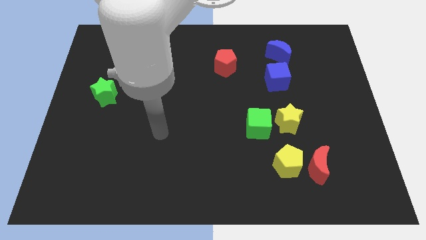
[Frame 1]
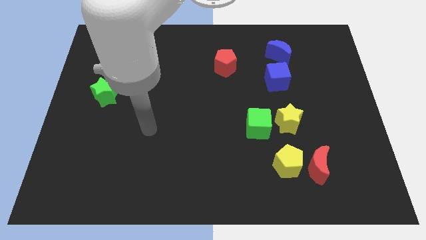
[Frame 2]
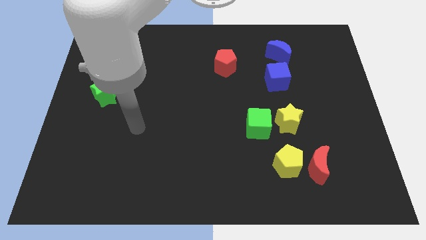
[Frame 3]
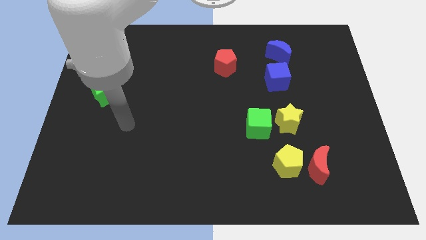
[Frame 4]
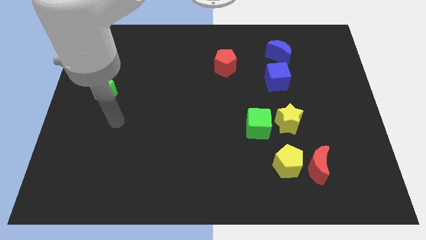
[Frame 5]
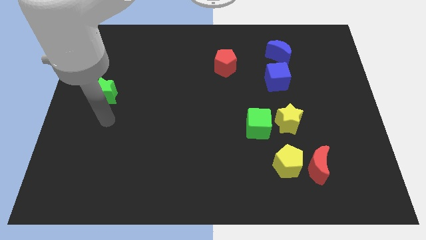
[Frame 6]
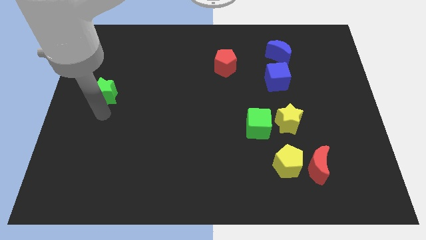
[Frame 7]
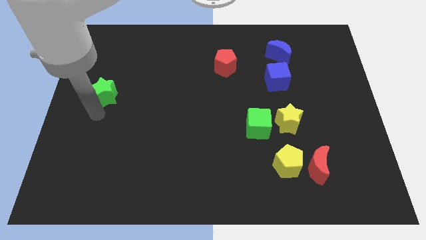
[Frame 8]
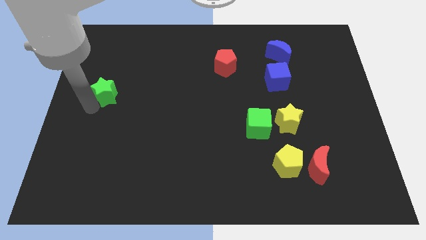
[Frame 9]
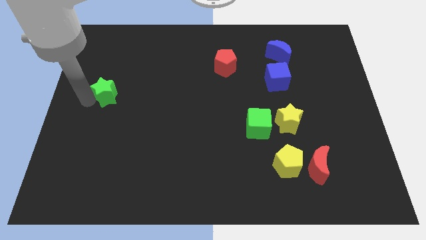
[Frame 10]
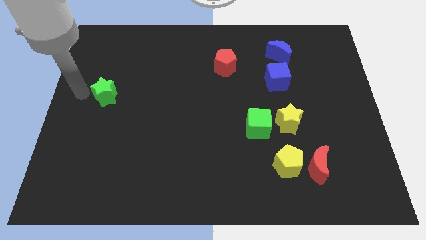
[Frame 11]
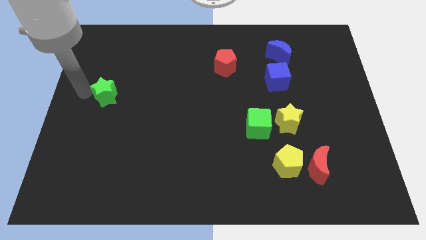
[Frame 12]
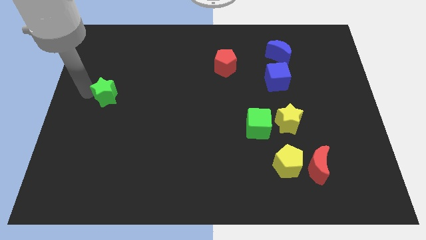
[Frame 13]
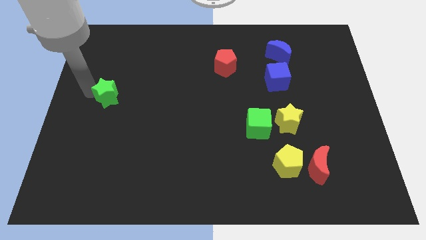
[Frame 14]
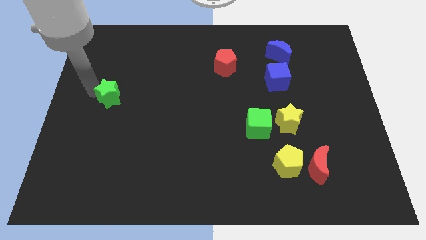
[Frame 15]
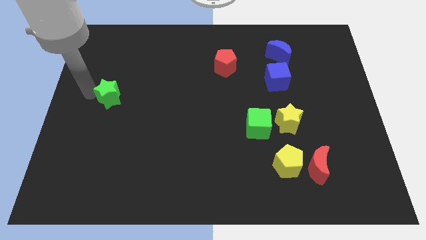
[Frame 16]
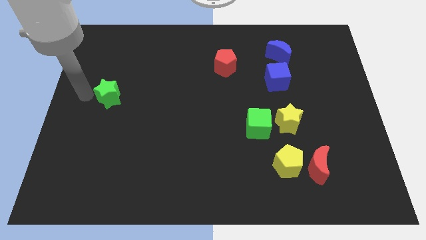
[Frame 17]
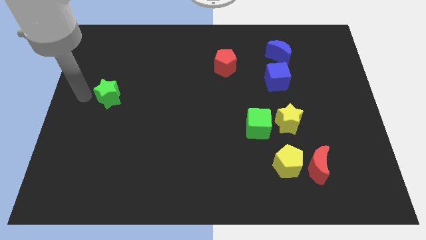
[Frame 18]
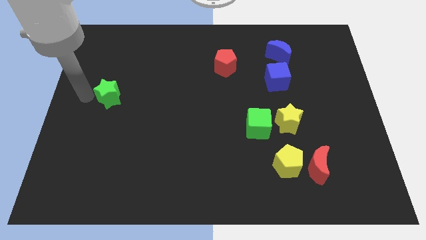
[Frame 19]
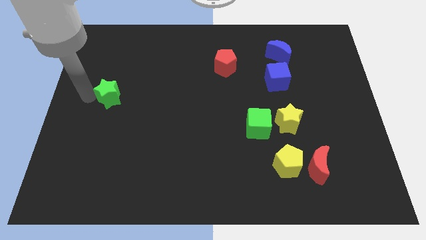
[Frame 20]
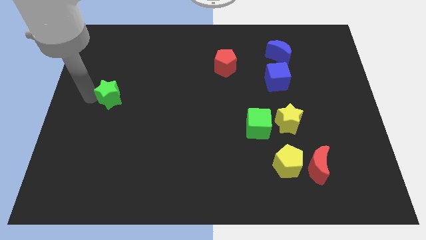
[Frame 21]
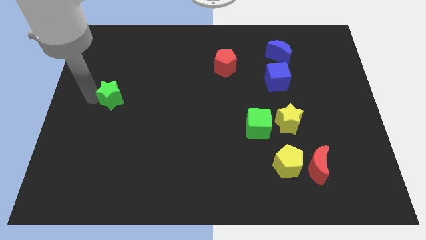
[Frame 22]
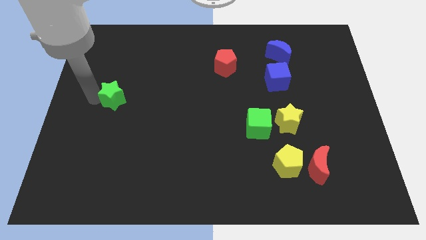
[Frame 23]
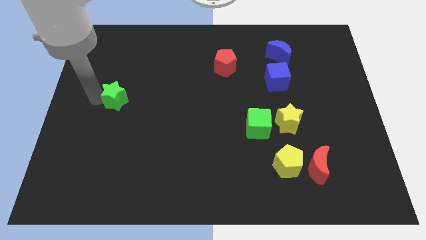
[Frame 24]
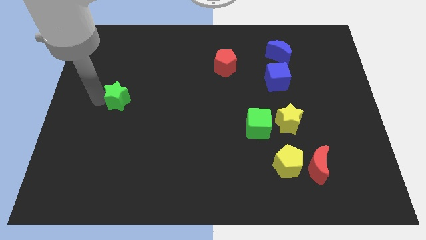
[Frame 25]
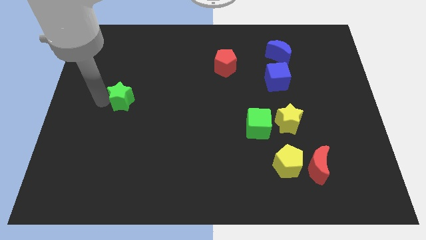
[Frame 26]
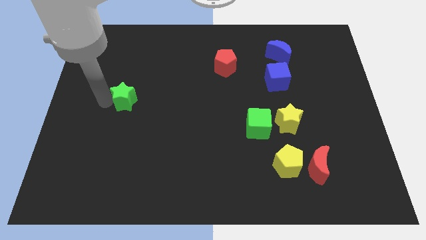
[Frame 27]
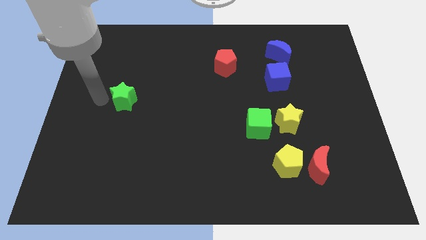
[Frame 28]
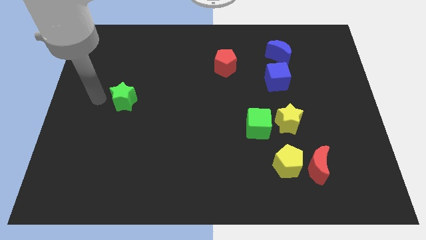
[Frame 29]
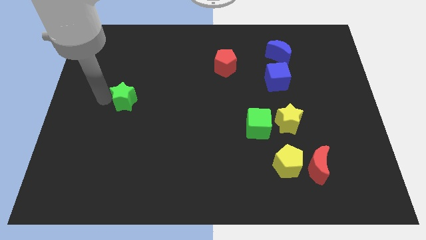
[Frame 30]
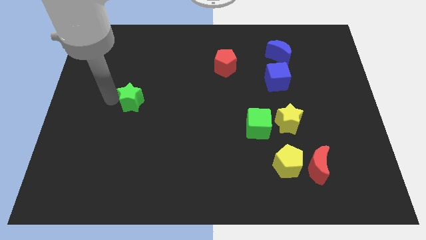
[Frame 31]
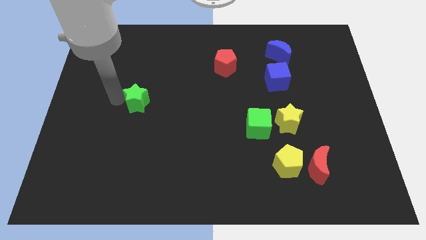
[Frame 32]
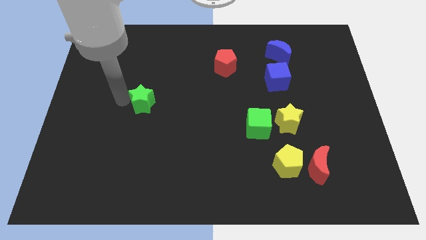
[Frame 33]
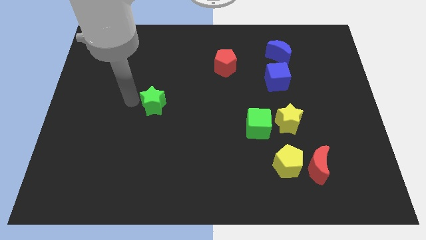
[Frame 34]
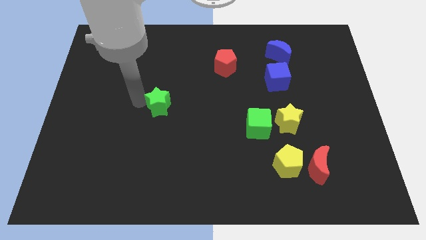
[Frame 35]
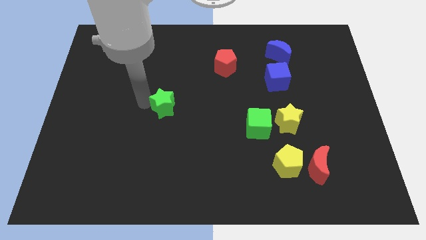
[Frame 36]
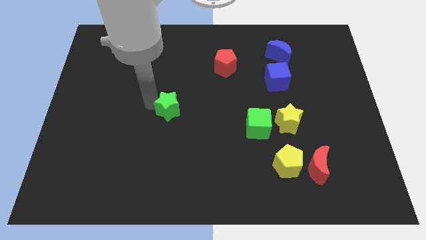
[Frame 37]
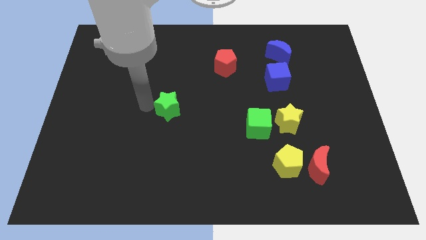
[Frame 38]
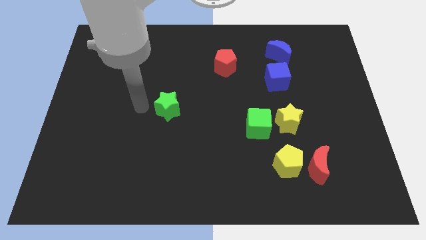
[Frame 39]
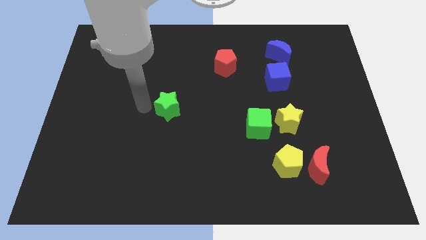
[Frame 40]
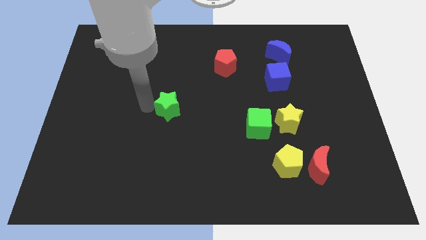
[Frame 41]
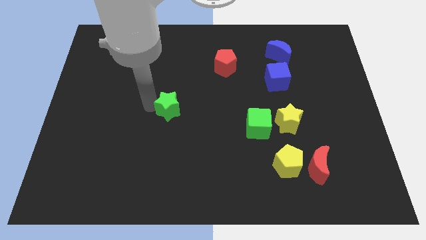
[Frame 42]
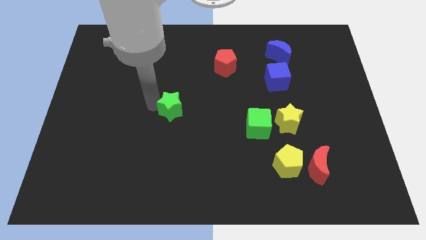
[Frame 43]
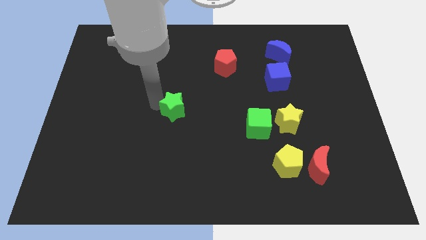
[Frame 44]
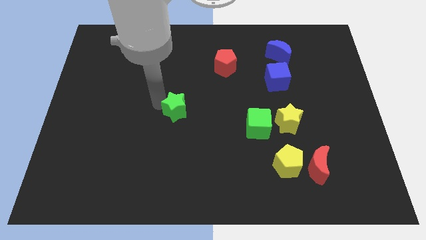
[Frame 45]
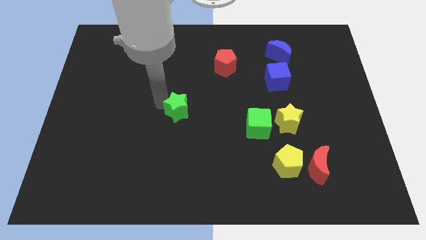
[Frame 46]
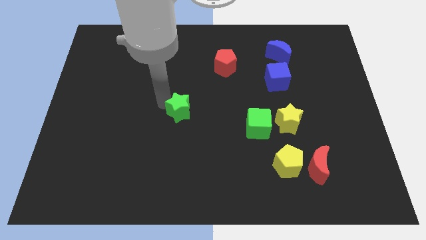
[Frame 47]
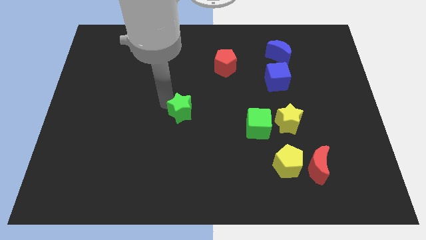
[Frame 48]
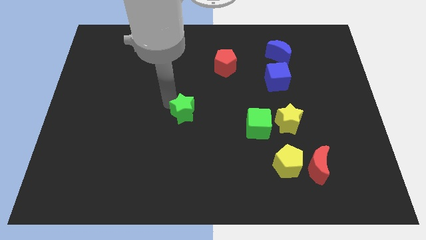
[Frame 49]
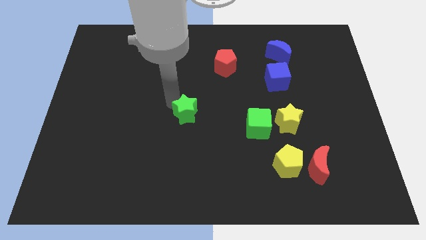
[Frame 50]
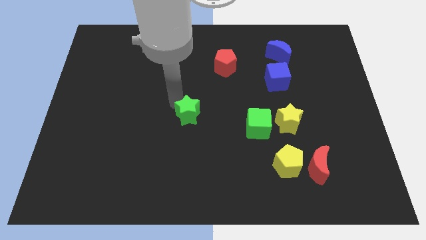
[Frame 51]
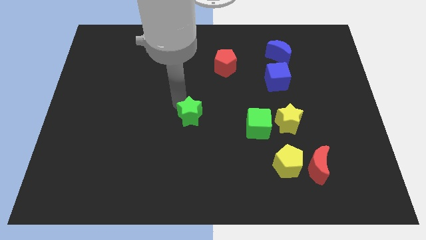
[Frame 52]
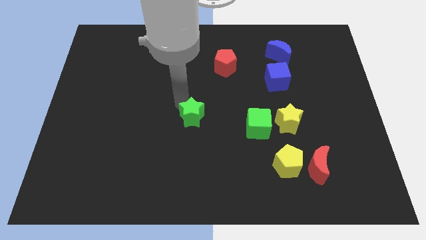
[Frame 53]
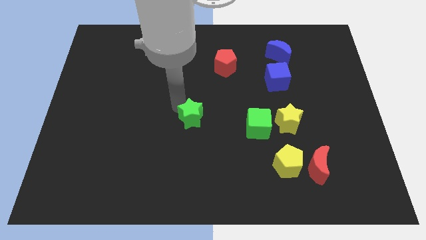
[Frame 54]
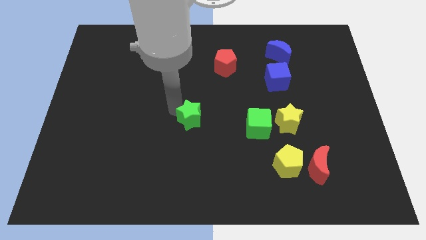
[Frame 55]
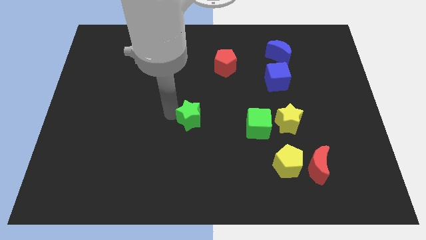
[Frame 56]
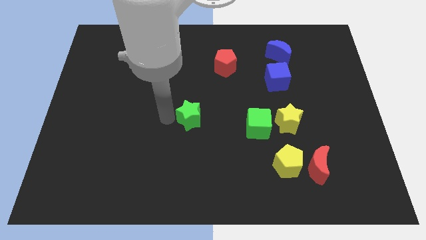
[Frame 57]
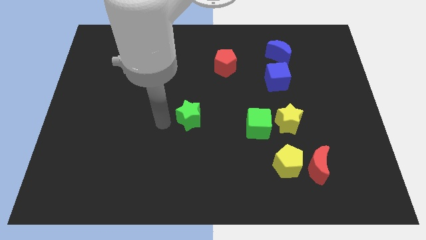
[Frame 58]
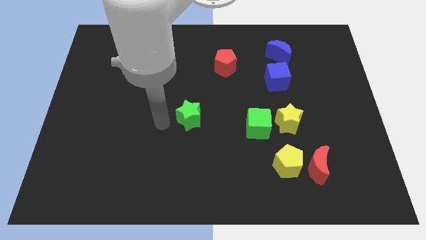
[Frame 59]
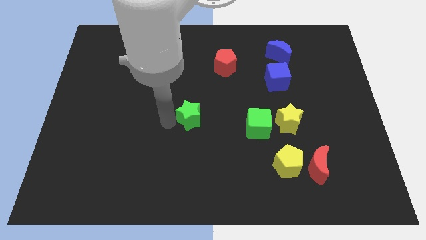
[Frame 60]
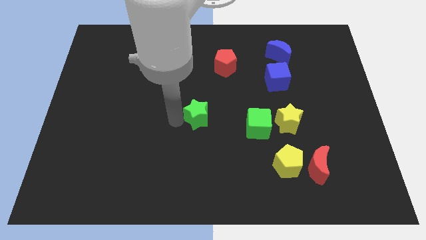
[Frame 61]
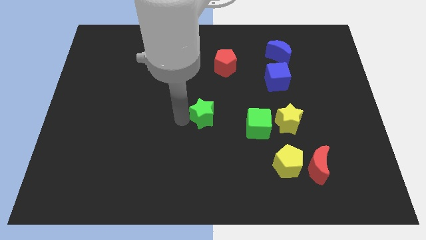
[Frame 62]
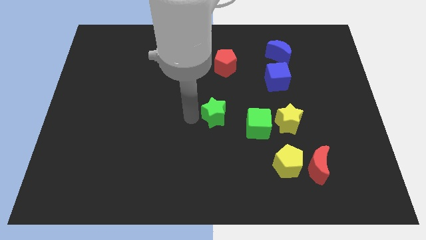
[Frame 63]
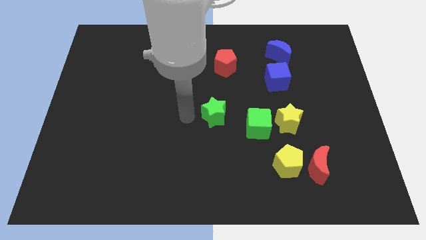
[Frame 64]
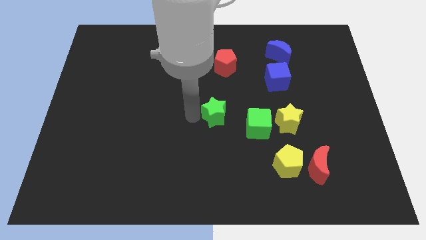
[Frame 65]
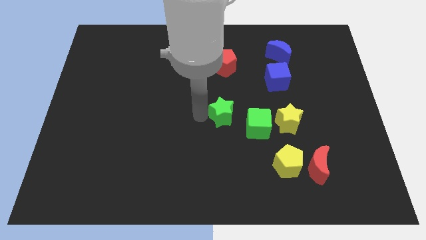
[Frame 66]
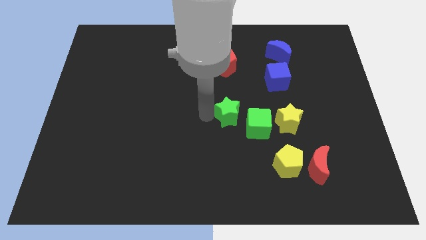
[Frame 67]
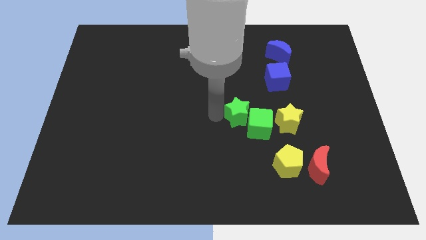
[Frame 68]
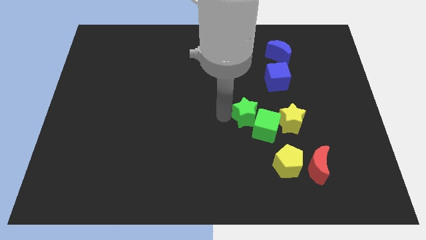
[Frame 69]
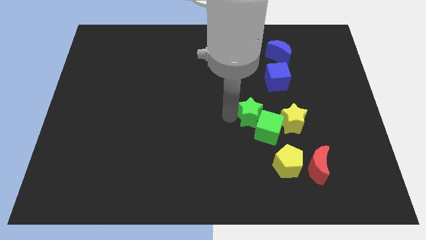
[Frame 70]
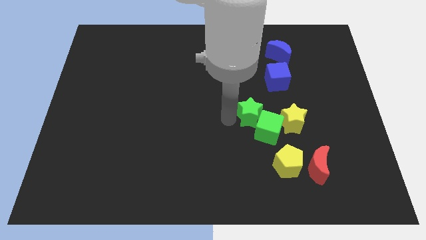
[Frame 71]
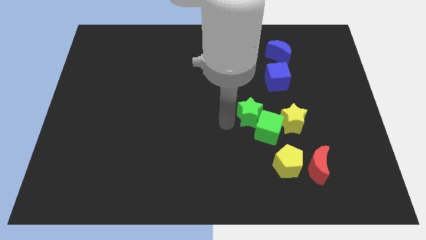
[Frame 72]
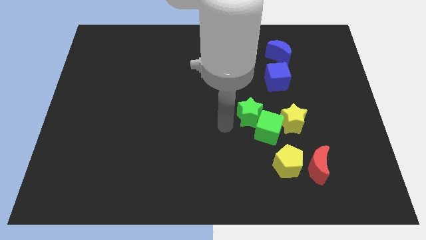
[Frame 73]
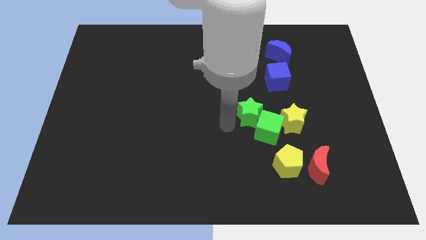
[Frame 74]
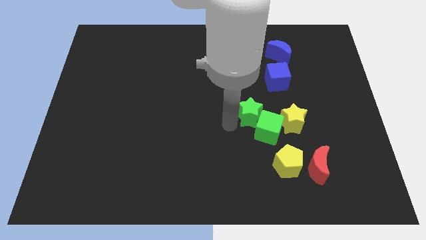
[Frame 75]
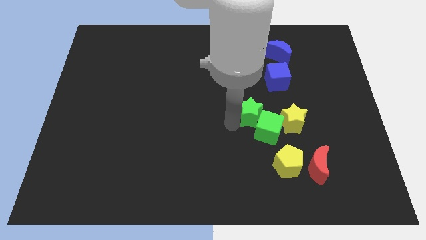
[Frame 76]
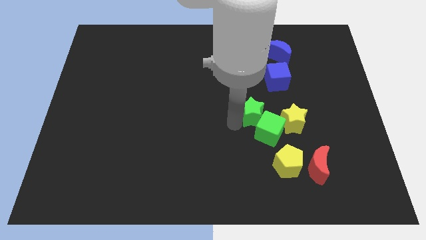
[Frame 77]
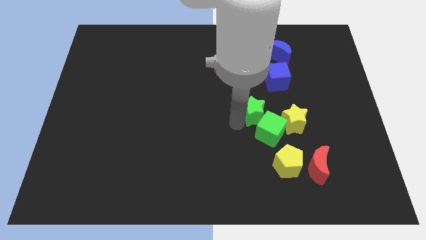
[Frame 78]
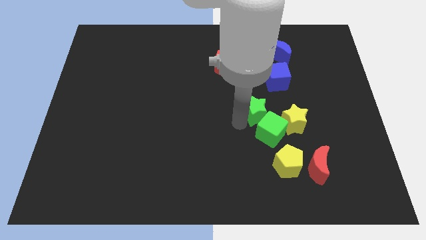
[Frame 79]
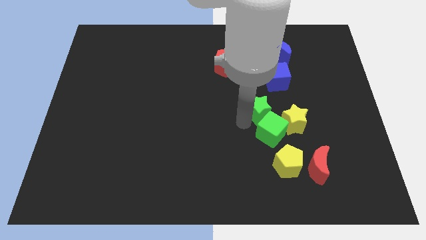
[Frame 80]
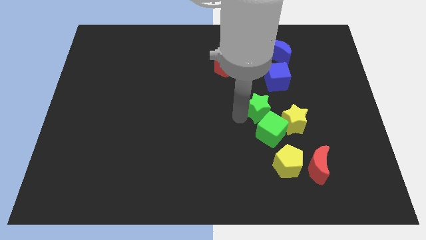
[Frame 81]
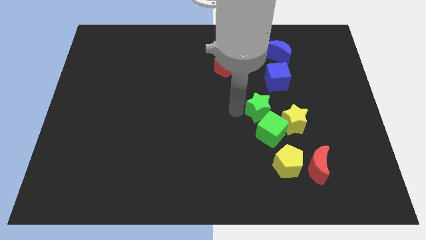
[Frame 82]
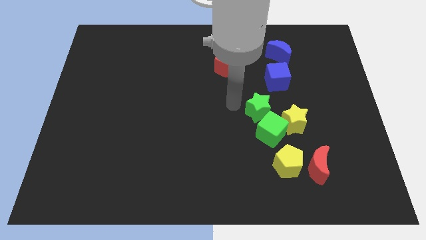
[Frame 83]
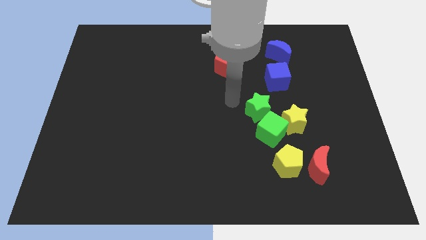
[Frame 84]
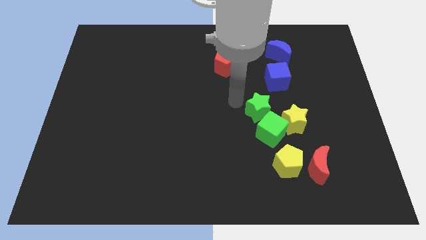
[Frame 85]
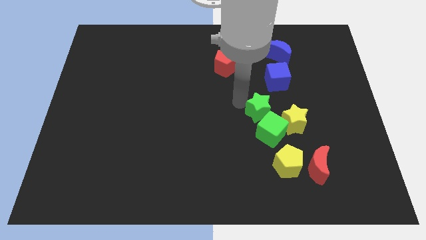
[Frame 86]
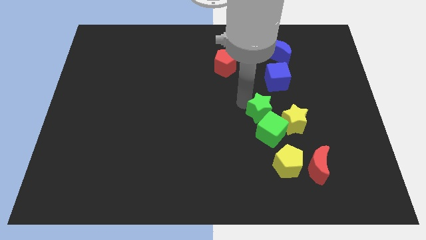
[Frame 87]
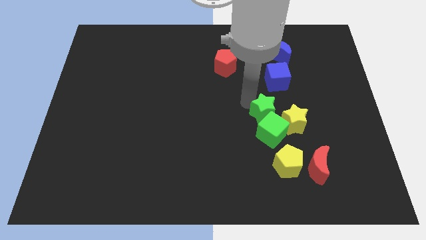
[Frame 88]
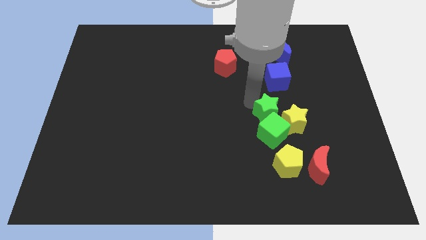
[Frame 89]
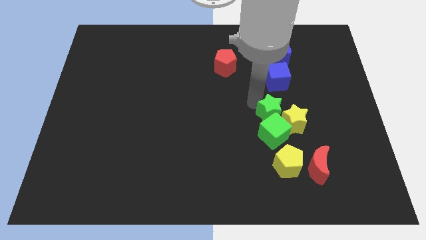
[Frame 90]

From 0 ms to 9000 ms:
move the green star close to the yellow star
